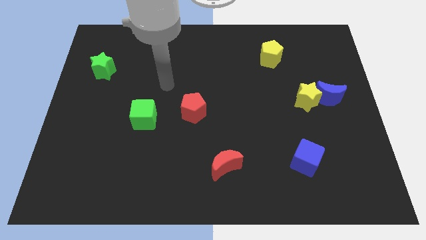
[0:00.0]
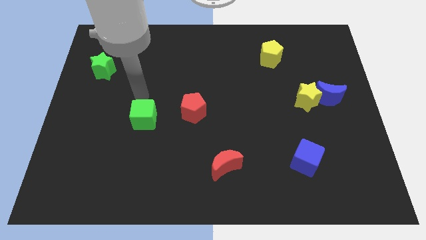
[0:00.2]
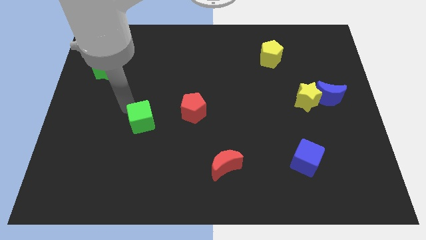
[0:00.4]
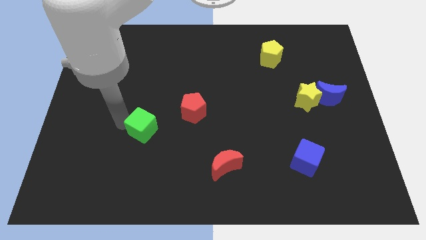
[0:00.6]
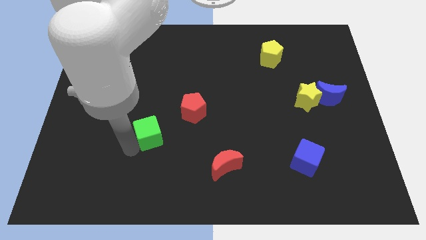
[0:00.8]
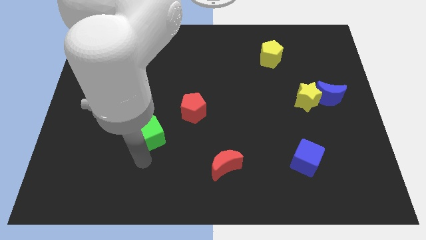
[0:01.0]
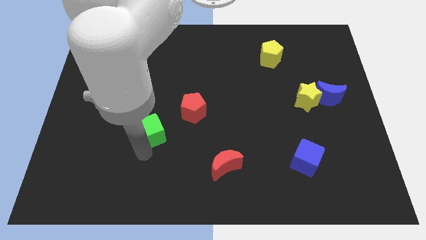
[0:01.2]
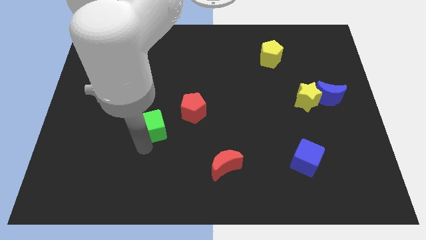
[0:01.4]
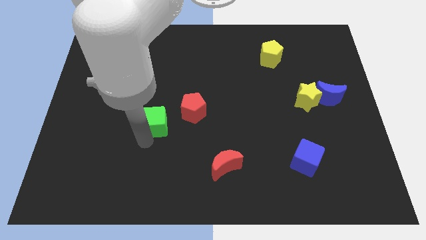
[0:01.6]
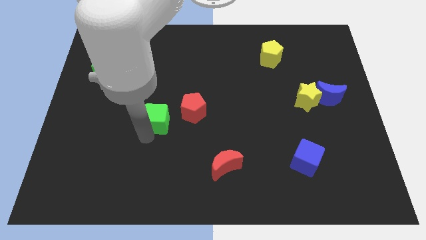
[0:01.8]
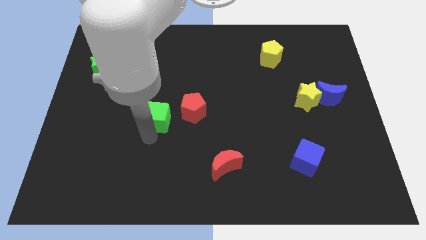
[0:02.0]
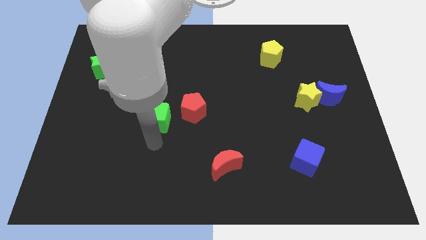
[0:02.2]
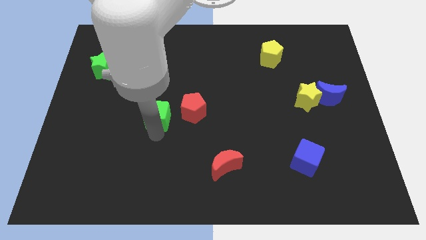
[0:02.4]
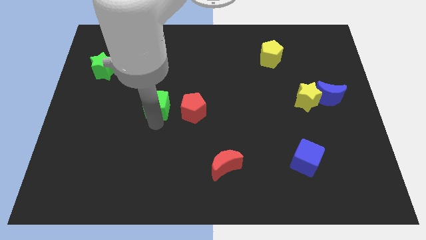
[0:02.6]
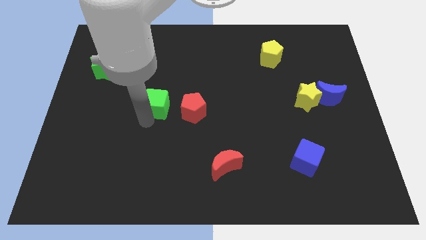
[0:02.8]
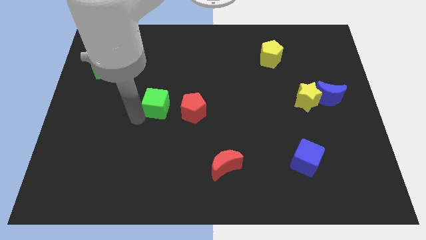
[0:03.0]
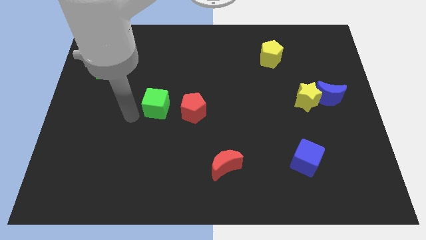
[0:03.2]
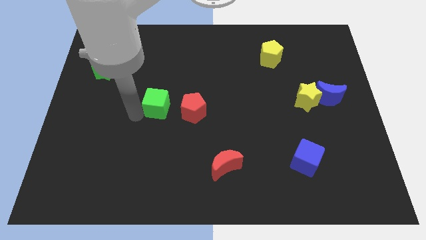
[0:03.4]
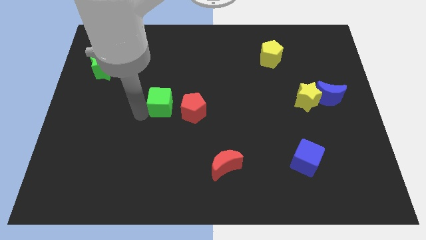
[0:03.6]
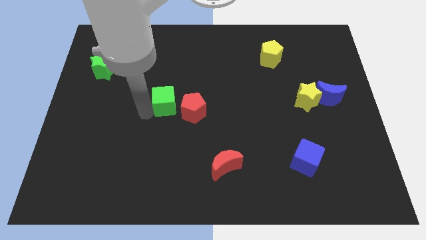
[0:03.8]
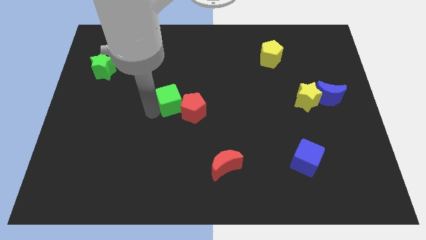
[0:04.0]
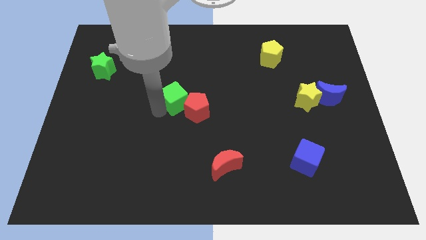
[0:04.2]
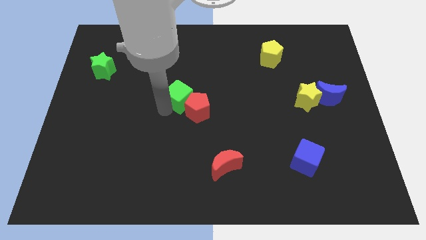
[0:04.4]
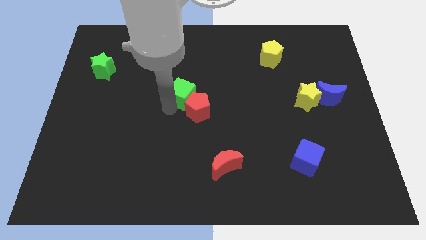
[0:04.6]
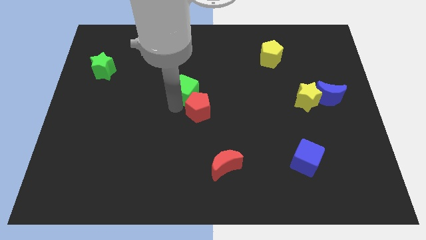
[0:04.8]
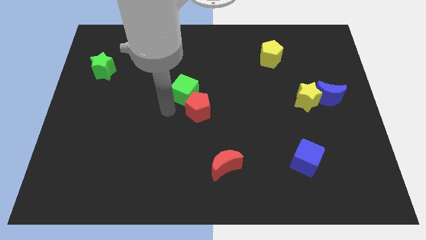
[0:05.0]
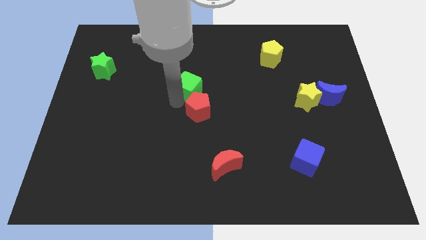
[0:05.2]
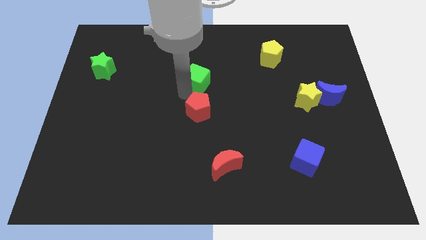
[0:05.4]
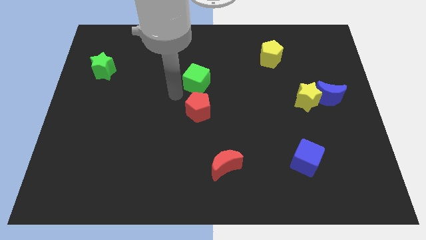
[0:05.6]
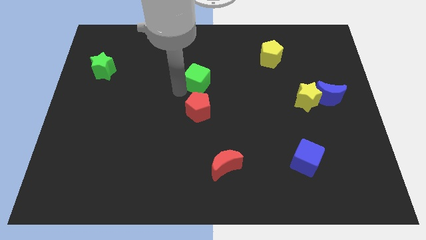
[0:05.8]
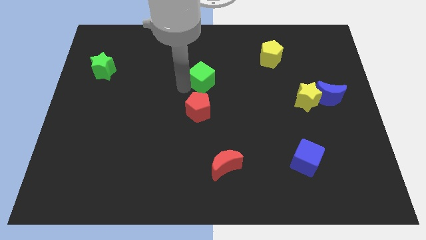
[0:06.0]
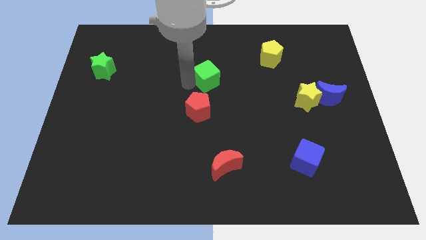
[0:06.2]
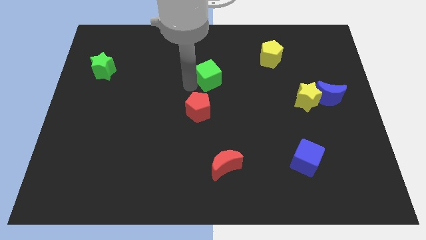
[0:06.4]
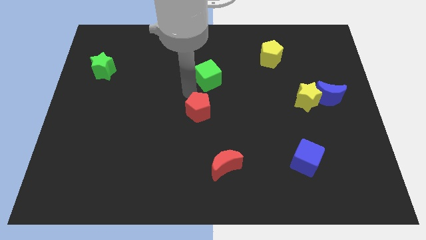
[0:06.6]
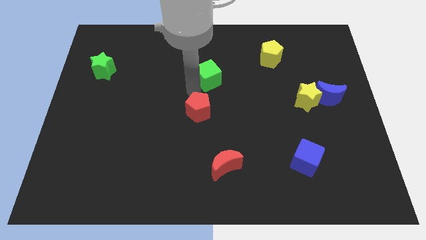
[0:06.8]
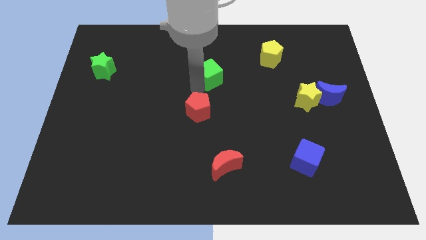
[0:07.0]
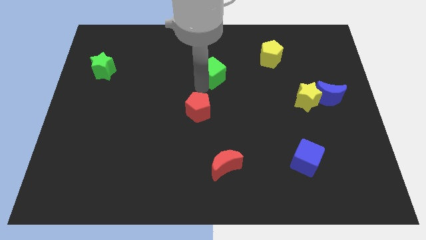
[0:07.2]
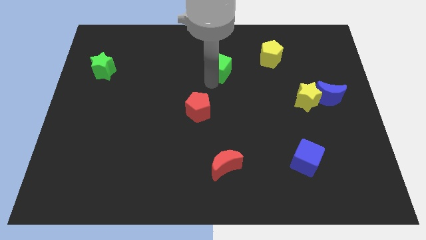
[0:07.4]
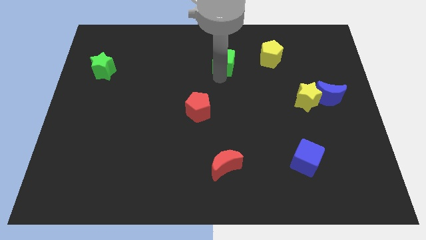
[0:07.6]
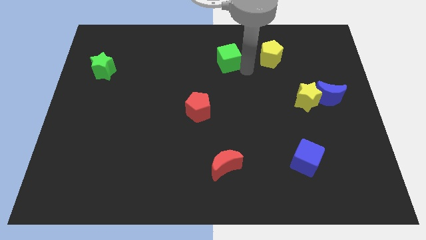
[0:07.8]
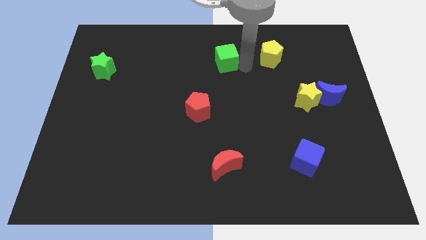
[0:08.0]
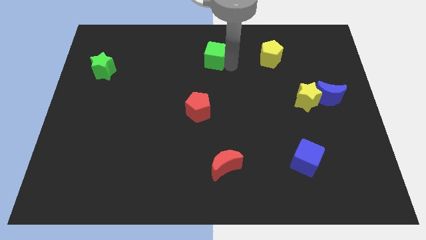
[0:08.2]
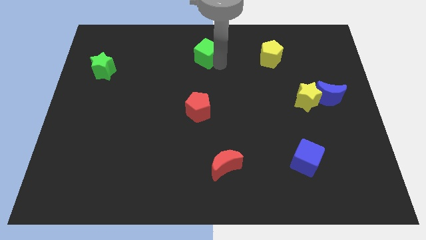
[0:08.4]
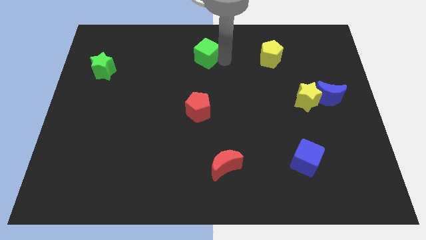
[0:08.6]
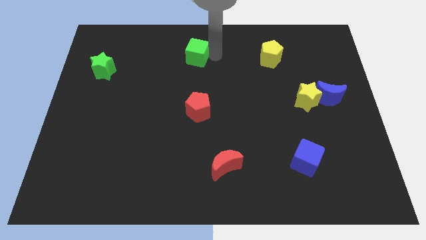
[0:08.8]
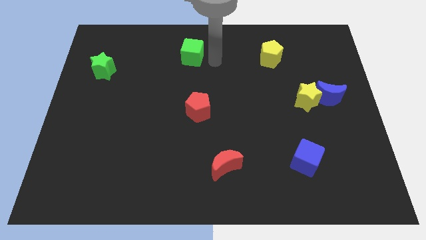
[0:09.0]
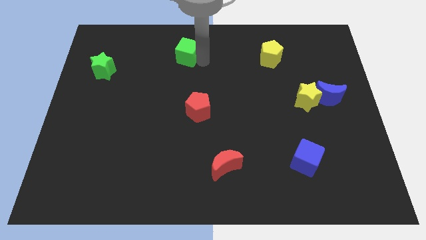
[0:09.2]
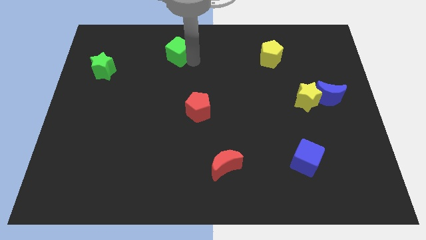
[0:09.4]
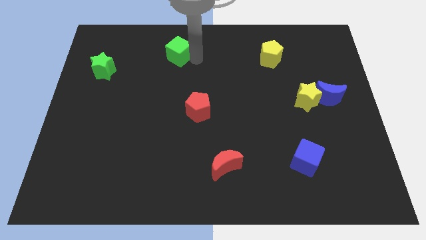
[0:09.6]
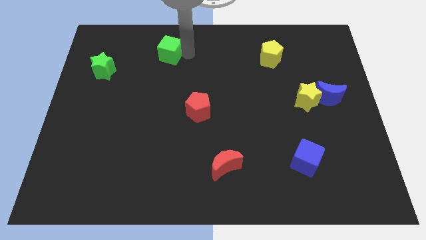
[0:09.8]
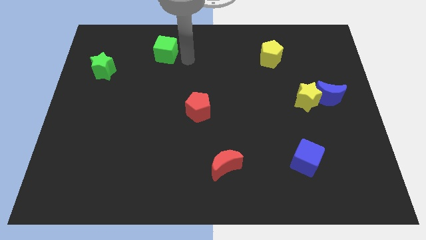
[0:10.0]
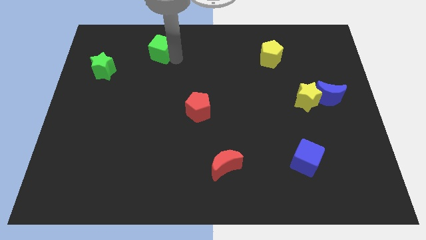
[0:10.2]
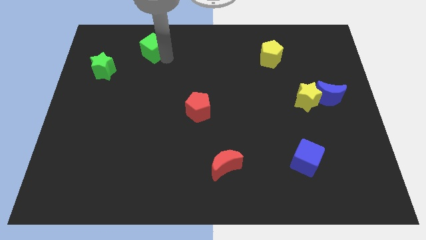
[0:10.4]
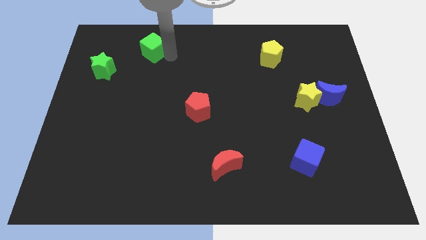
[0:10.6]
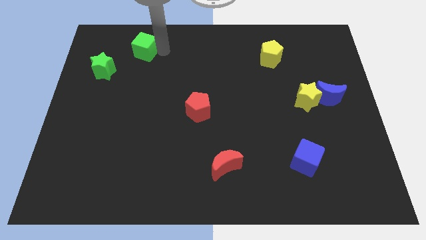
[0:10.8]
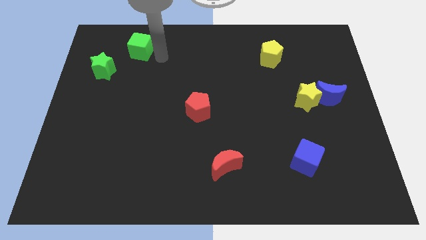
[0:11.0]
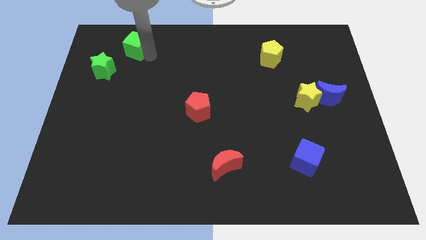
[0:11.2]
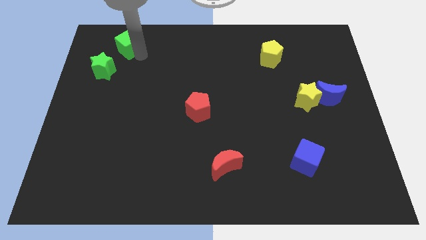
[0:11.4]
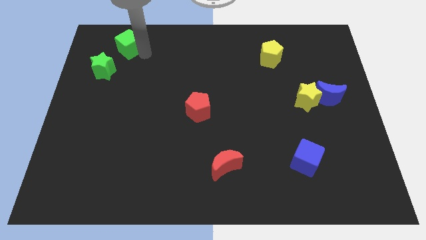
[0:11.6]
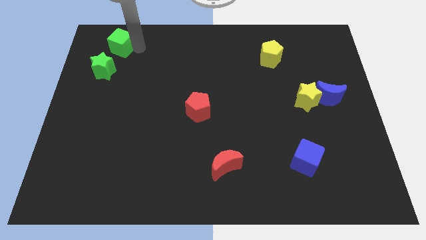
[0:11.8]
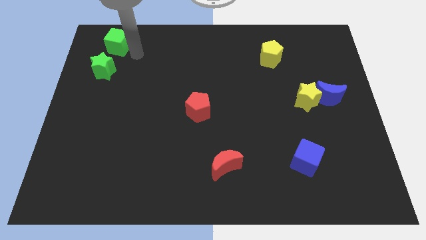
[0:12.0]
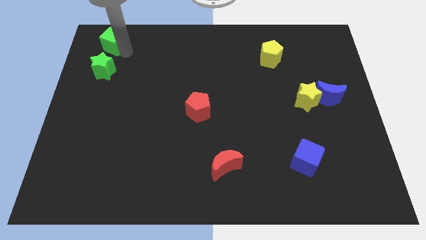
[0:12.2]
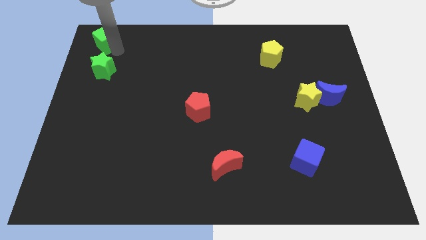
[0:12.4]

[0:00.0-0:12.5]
move the green cube to the upper left corner
